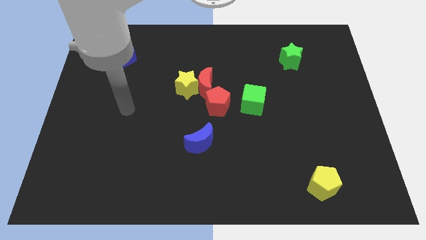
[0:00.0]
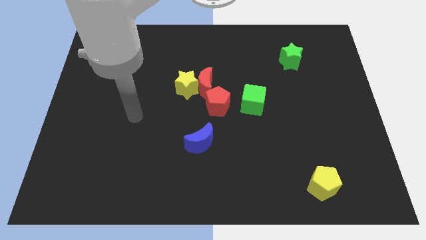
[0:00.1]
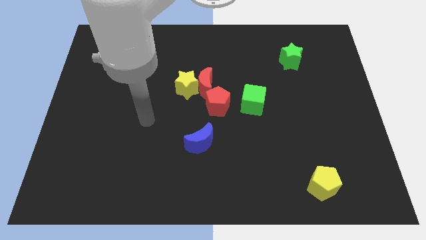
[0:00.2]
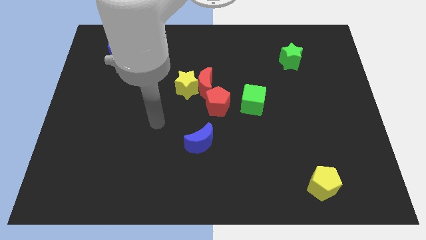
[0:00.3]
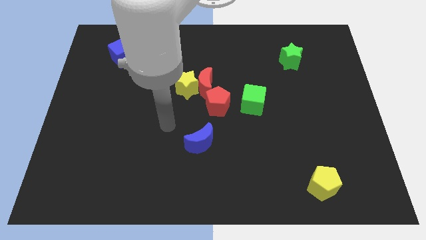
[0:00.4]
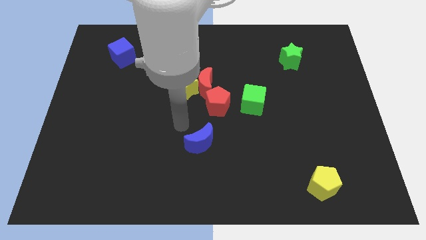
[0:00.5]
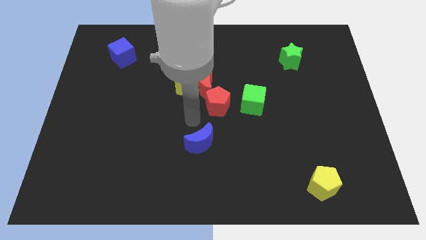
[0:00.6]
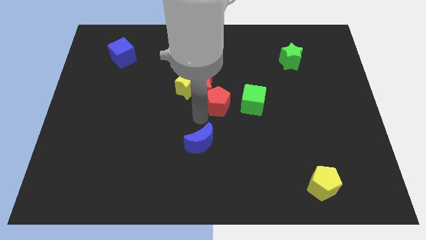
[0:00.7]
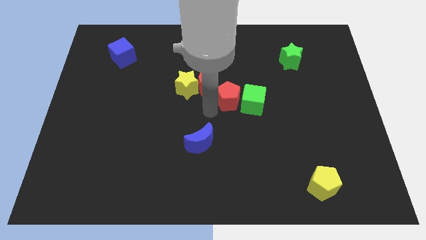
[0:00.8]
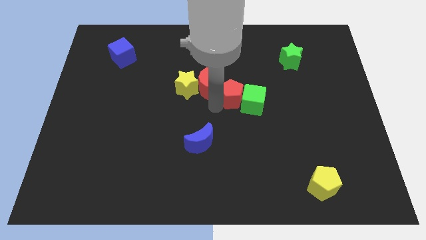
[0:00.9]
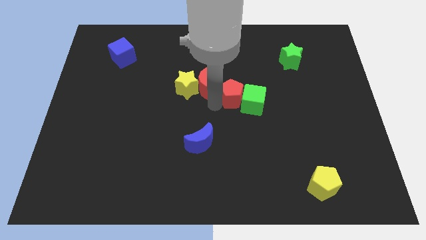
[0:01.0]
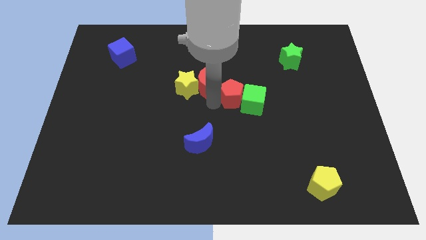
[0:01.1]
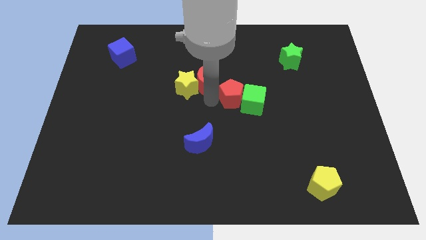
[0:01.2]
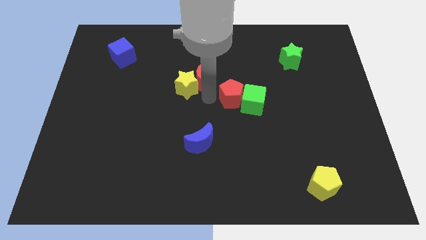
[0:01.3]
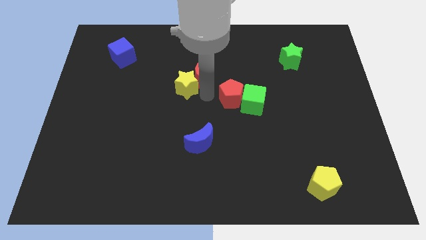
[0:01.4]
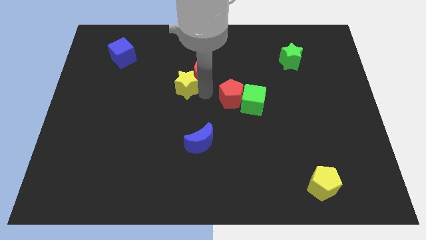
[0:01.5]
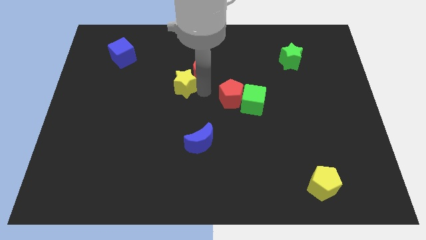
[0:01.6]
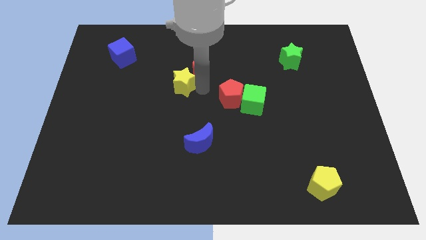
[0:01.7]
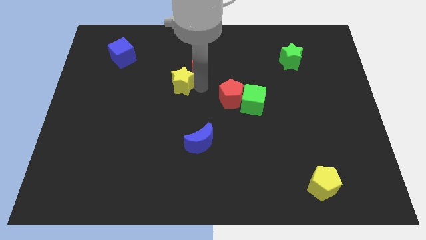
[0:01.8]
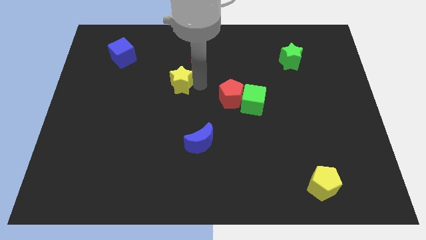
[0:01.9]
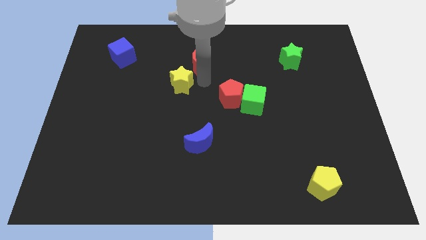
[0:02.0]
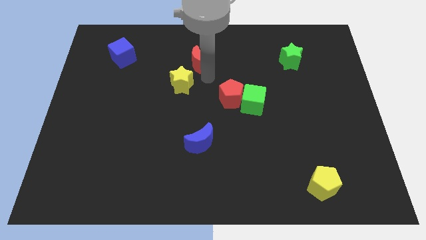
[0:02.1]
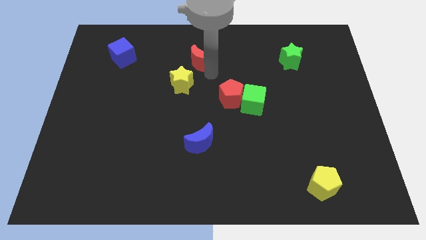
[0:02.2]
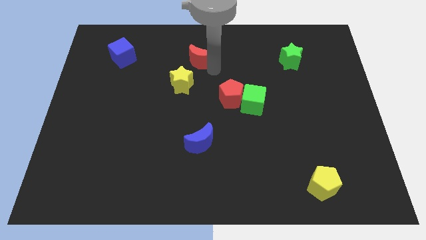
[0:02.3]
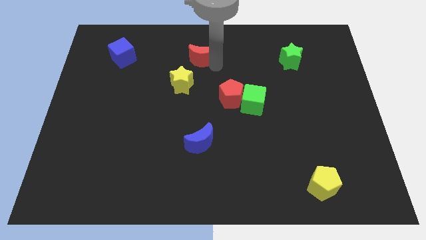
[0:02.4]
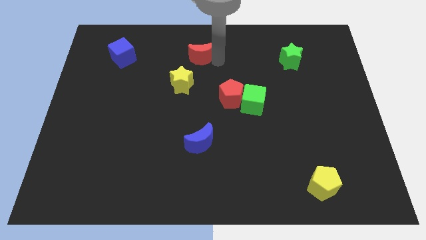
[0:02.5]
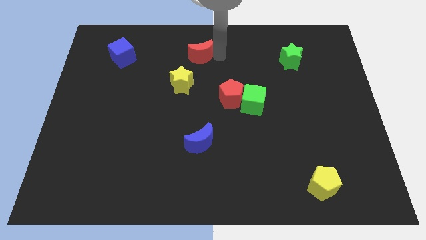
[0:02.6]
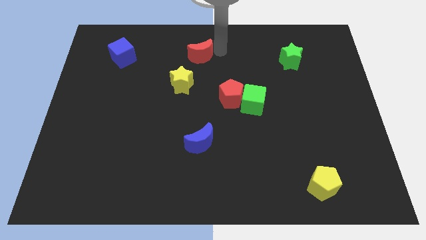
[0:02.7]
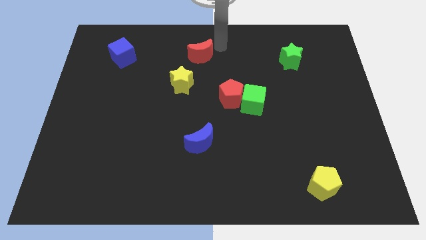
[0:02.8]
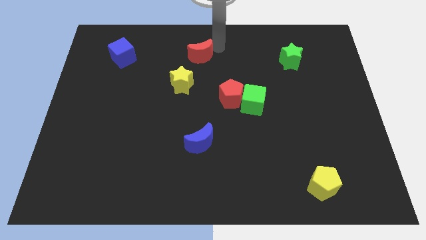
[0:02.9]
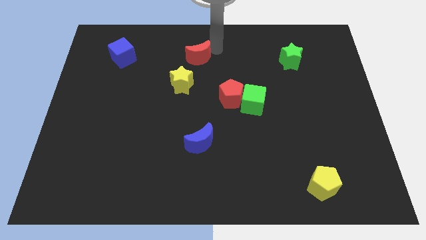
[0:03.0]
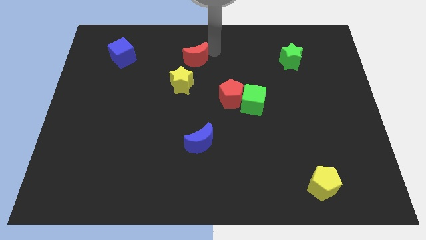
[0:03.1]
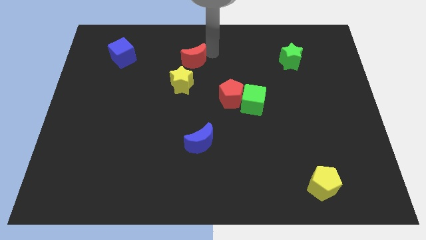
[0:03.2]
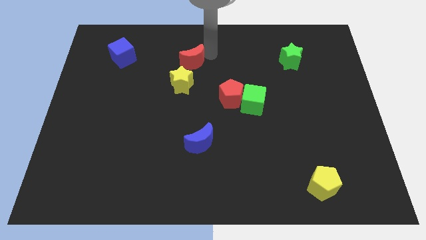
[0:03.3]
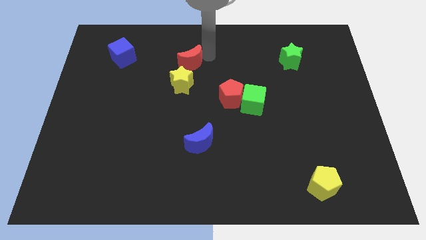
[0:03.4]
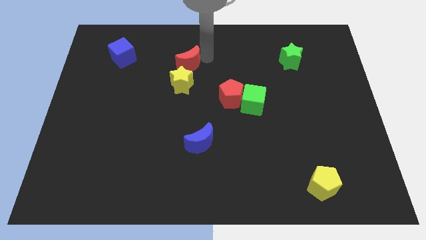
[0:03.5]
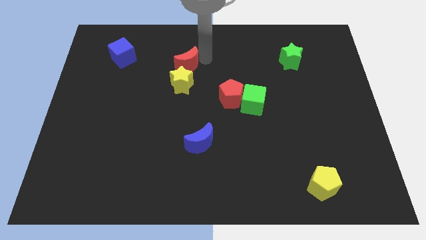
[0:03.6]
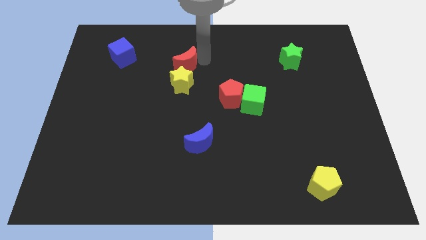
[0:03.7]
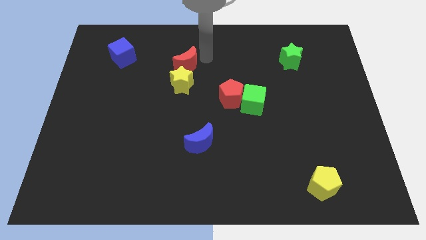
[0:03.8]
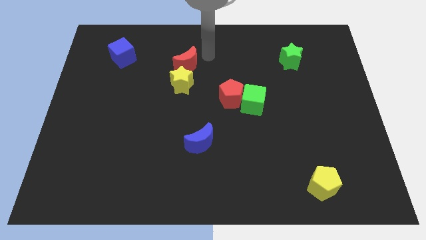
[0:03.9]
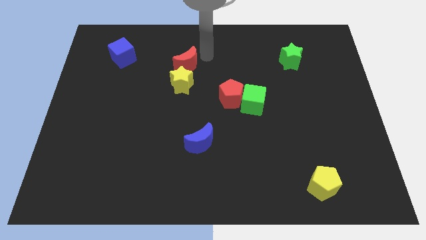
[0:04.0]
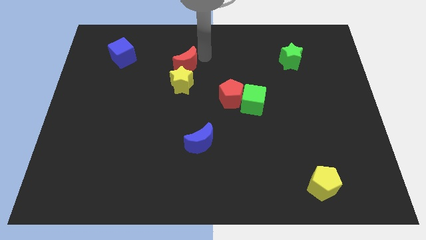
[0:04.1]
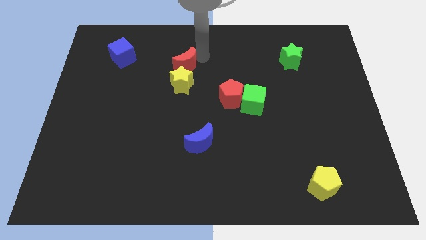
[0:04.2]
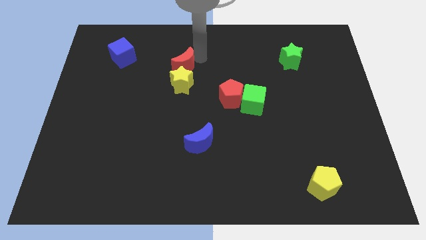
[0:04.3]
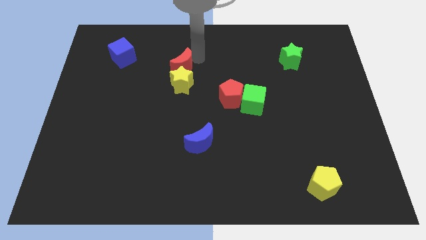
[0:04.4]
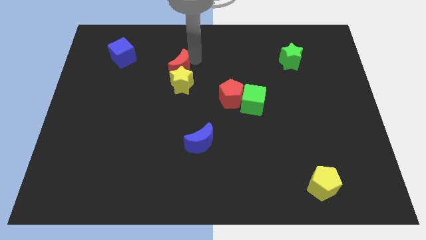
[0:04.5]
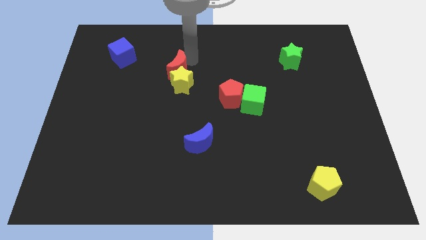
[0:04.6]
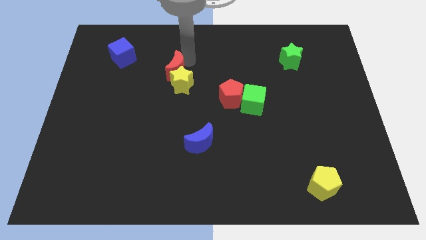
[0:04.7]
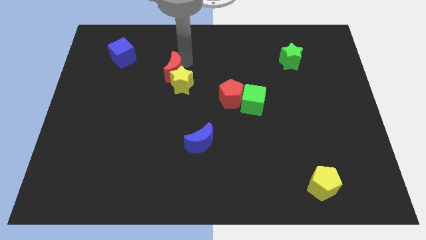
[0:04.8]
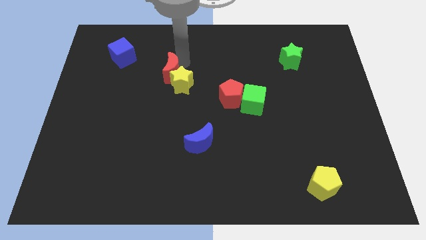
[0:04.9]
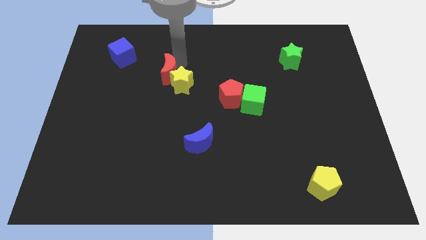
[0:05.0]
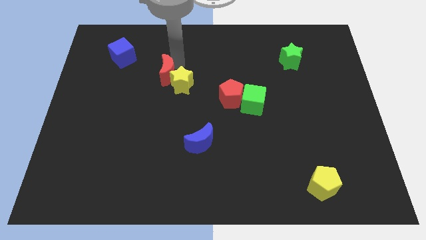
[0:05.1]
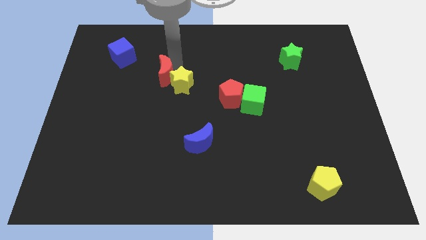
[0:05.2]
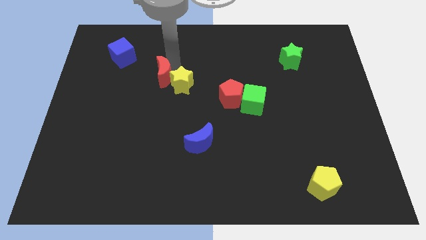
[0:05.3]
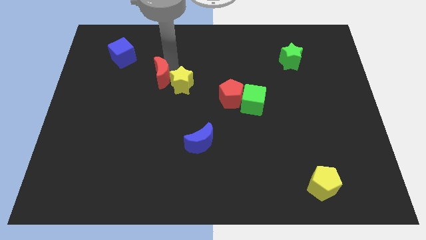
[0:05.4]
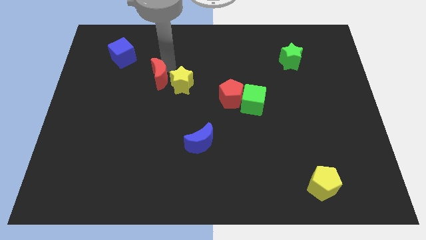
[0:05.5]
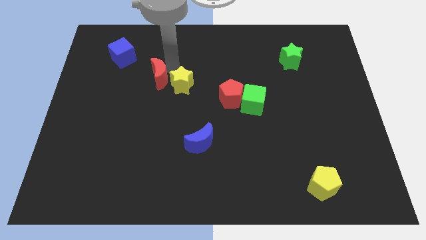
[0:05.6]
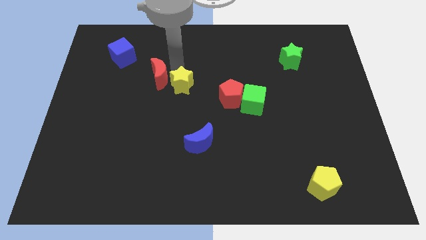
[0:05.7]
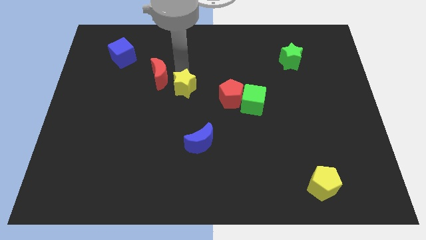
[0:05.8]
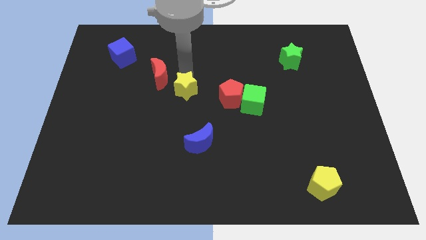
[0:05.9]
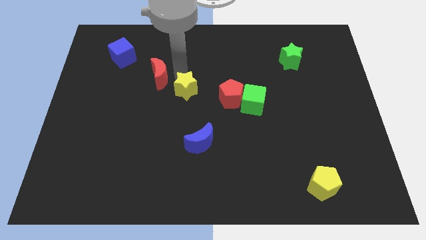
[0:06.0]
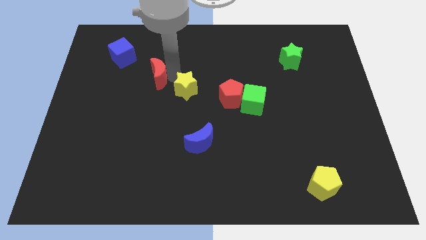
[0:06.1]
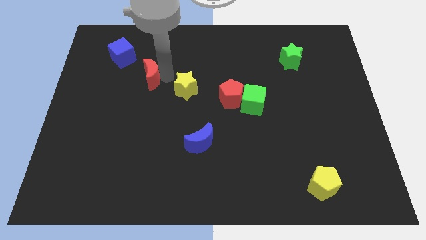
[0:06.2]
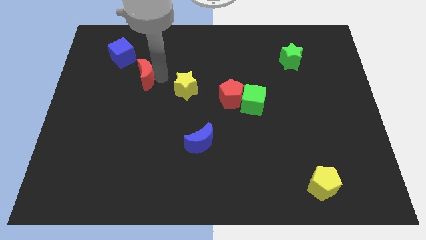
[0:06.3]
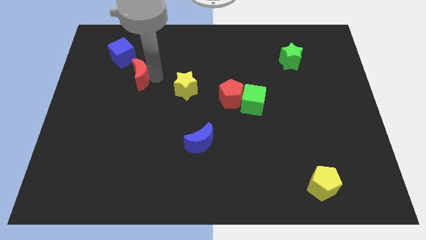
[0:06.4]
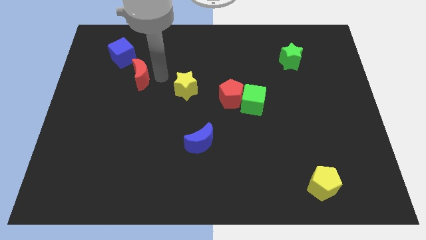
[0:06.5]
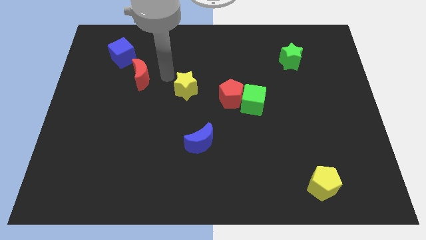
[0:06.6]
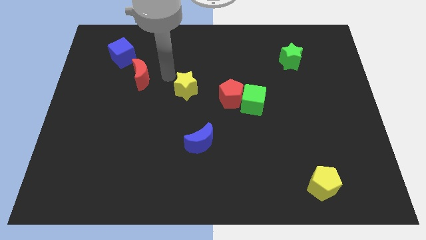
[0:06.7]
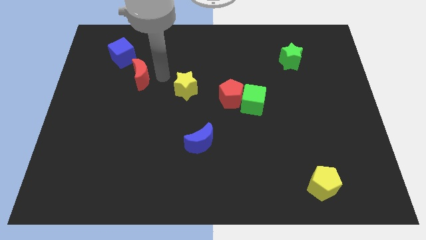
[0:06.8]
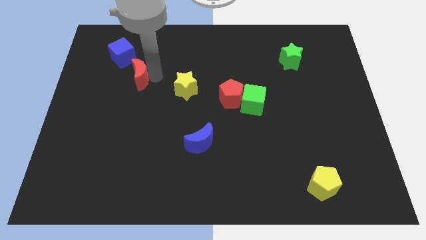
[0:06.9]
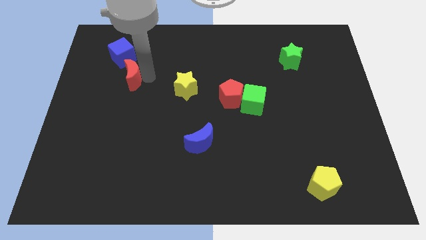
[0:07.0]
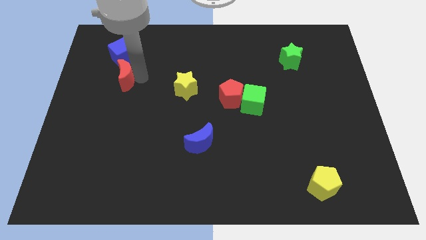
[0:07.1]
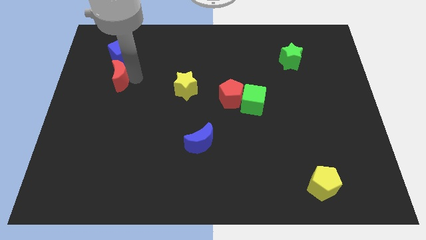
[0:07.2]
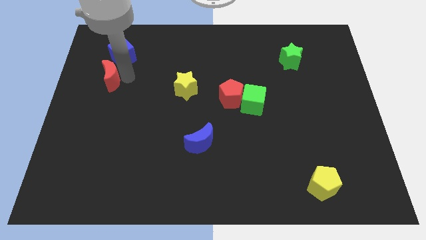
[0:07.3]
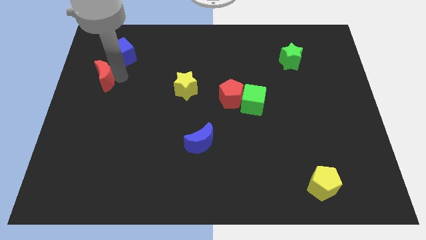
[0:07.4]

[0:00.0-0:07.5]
move the red moon to the left side of the board
